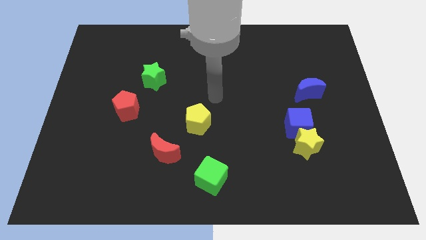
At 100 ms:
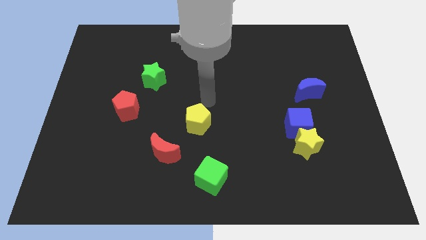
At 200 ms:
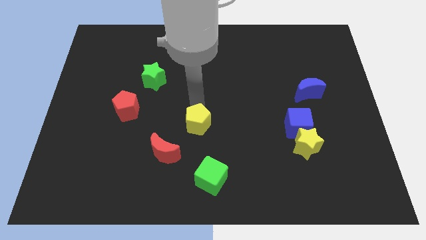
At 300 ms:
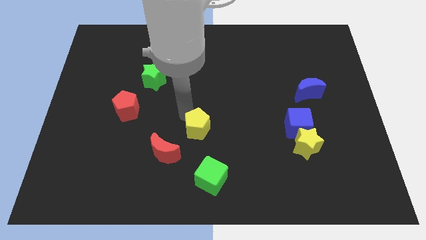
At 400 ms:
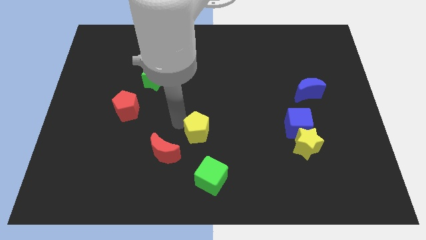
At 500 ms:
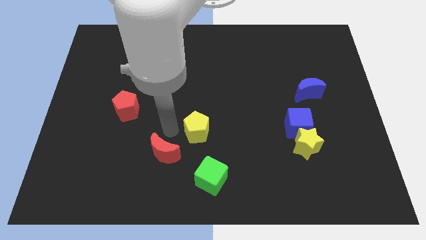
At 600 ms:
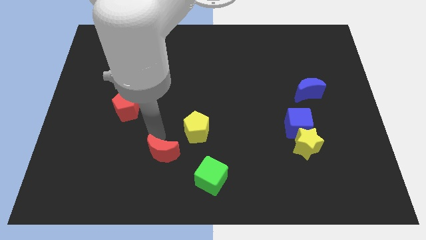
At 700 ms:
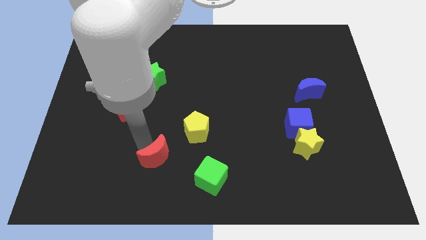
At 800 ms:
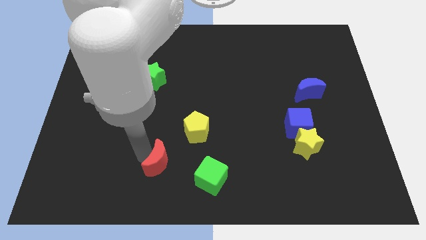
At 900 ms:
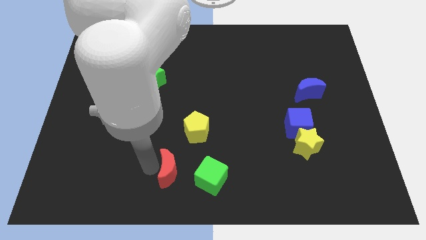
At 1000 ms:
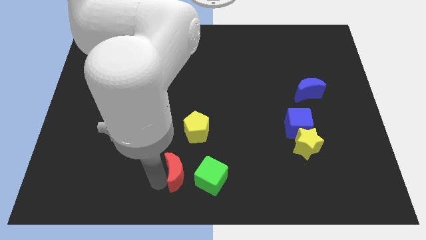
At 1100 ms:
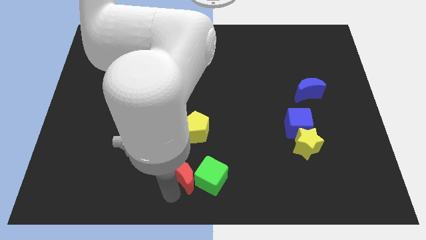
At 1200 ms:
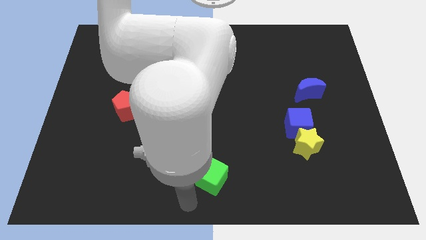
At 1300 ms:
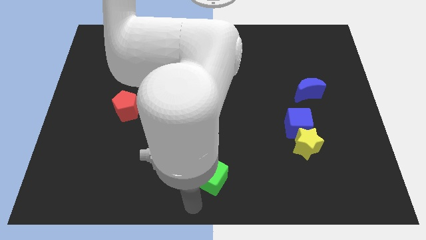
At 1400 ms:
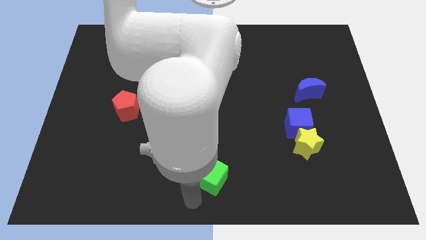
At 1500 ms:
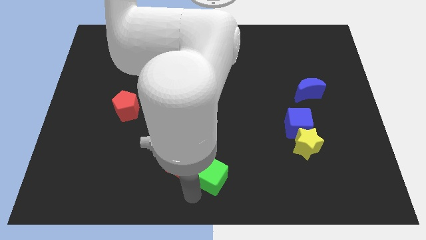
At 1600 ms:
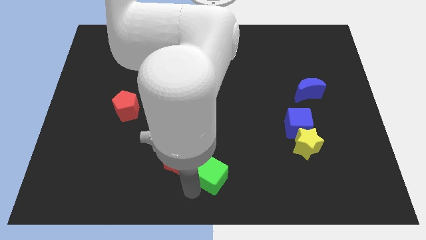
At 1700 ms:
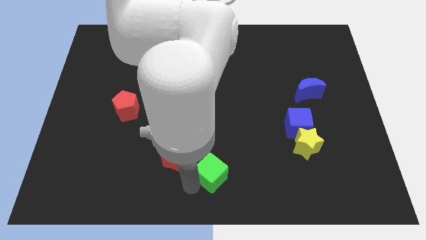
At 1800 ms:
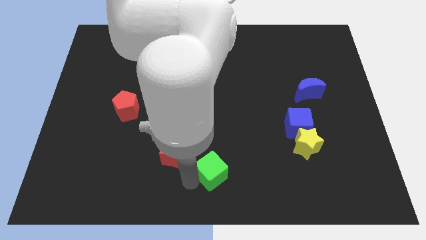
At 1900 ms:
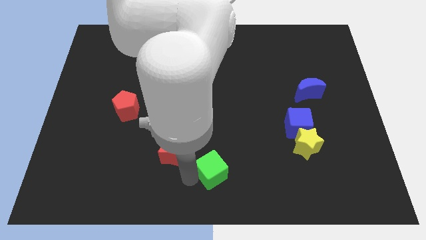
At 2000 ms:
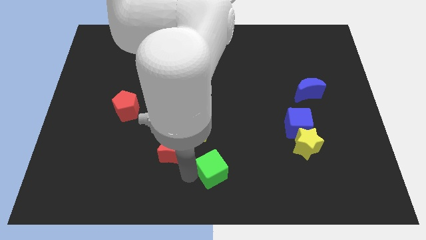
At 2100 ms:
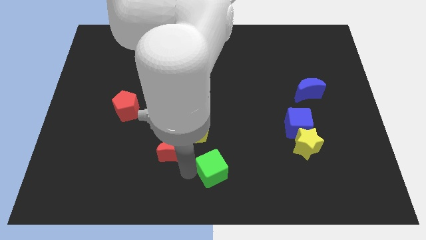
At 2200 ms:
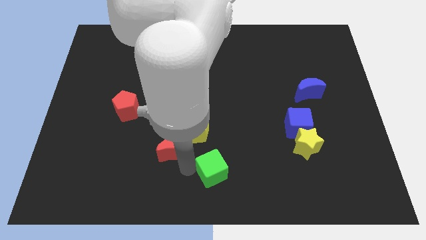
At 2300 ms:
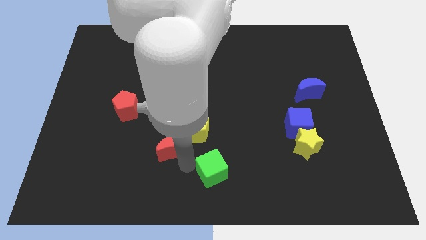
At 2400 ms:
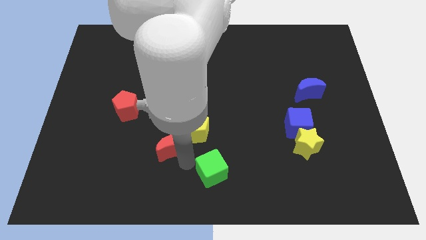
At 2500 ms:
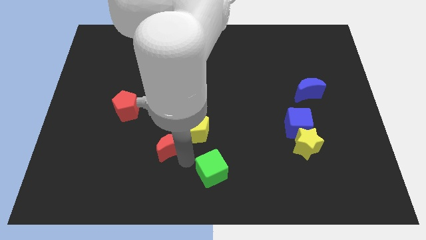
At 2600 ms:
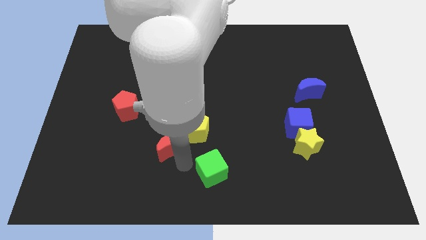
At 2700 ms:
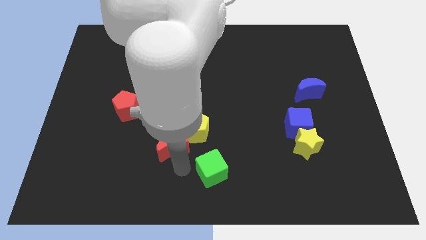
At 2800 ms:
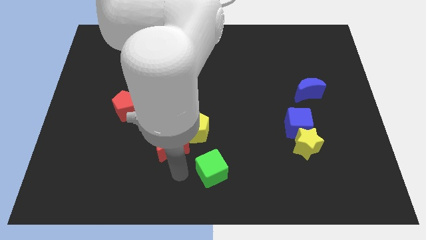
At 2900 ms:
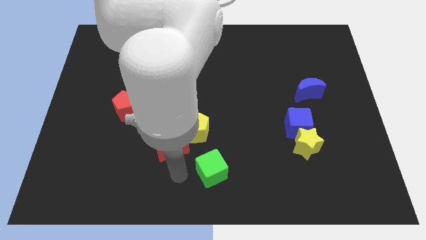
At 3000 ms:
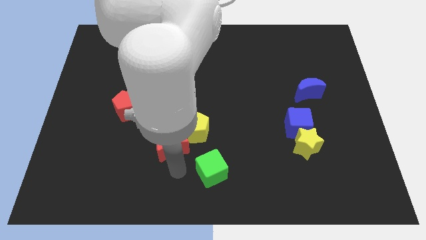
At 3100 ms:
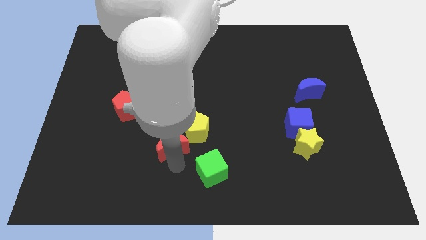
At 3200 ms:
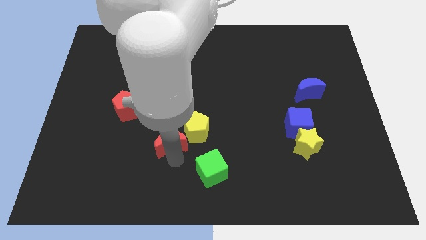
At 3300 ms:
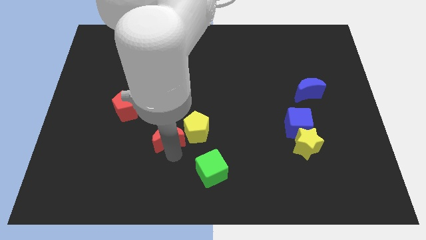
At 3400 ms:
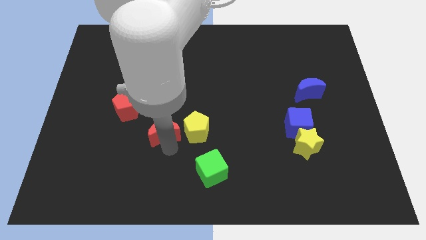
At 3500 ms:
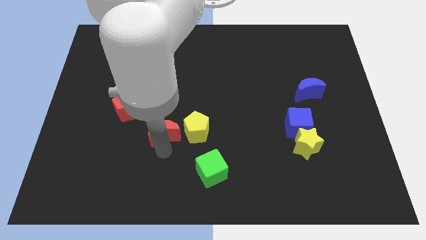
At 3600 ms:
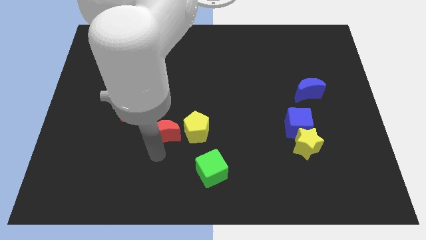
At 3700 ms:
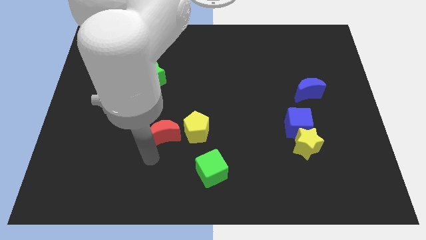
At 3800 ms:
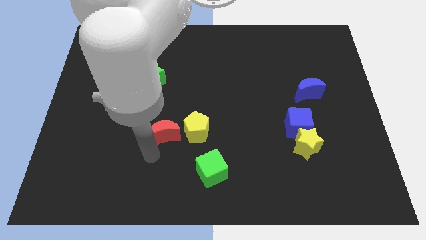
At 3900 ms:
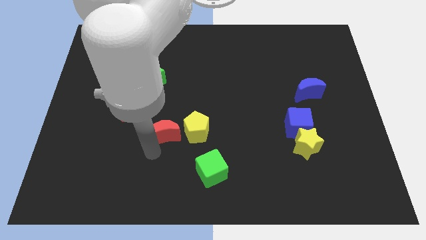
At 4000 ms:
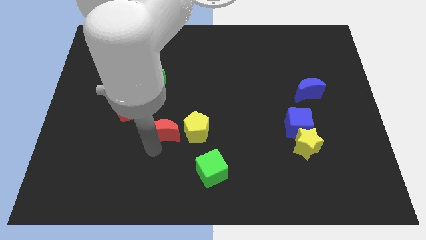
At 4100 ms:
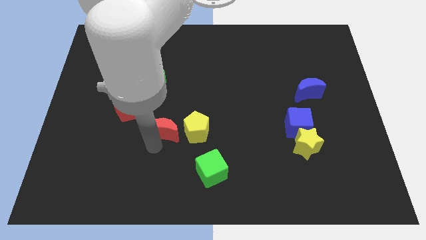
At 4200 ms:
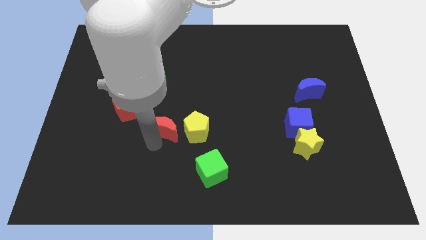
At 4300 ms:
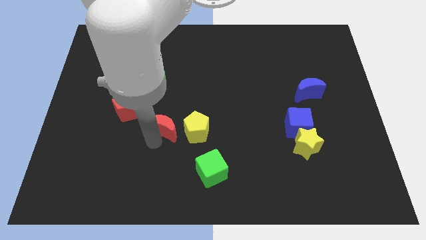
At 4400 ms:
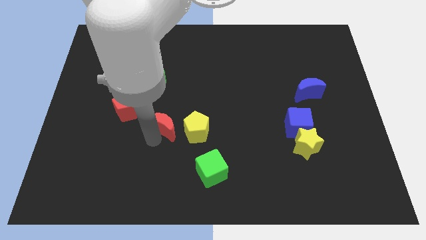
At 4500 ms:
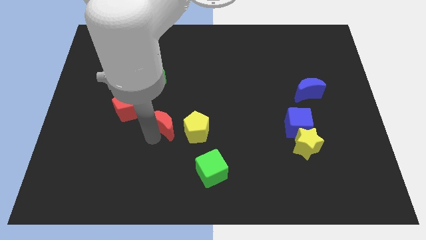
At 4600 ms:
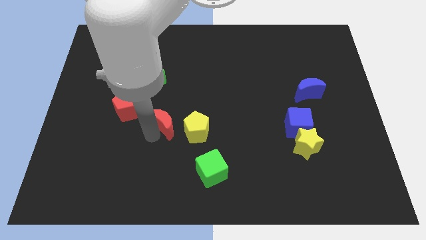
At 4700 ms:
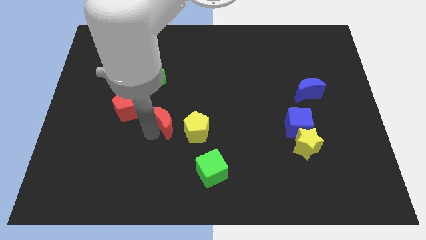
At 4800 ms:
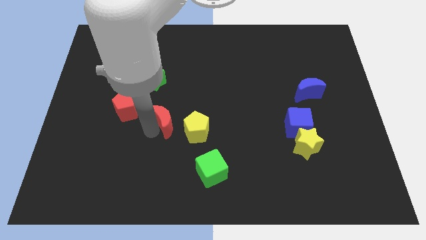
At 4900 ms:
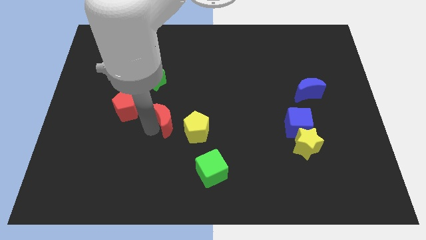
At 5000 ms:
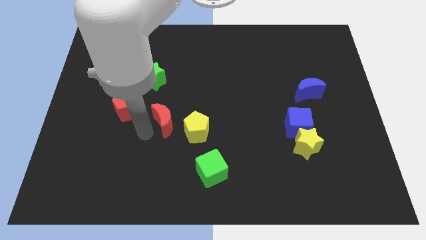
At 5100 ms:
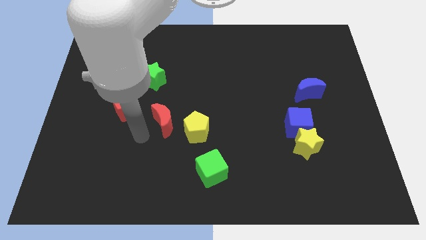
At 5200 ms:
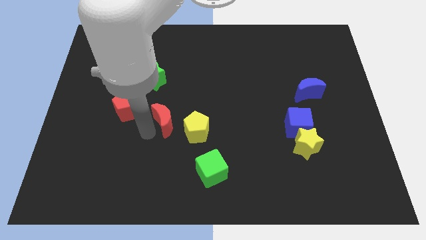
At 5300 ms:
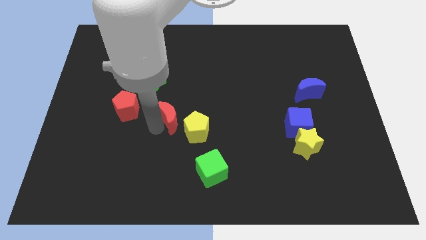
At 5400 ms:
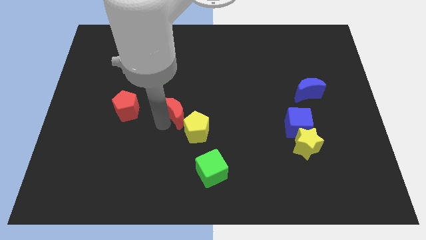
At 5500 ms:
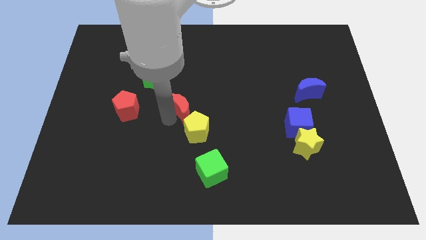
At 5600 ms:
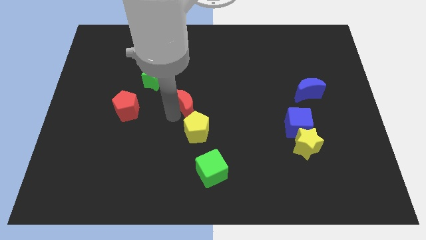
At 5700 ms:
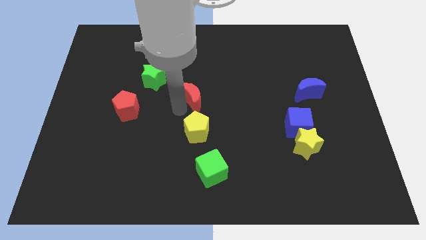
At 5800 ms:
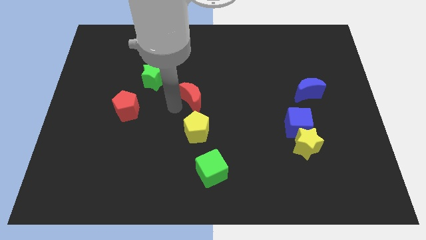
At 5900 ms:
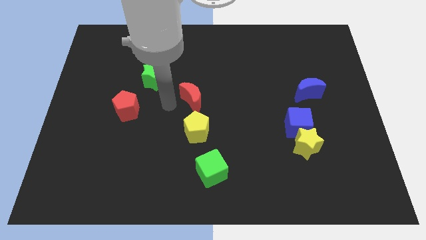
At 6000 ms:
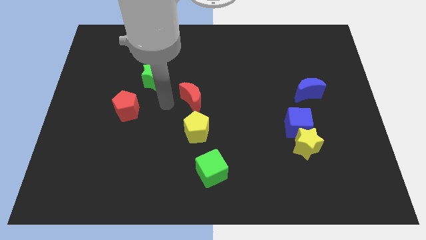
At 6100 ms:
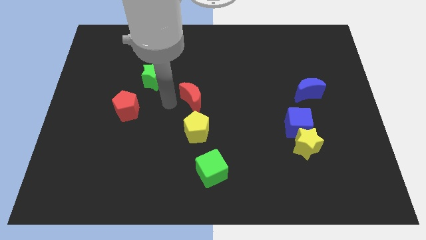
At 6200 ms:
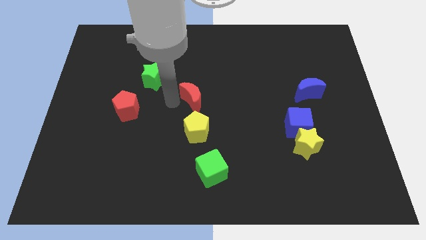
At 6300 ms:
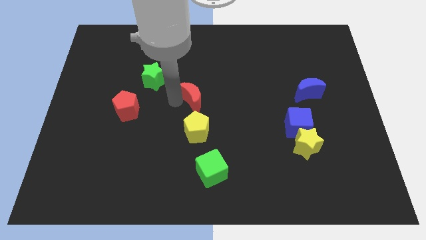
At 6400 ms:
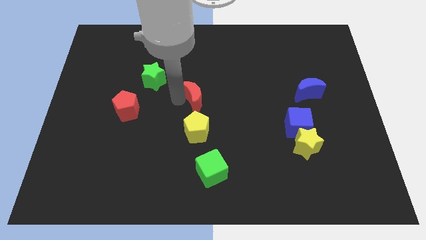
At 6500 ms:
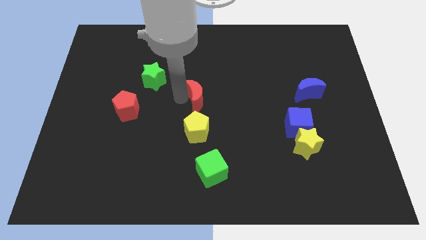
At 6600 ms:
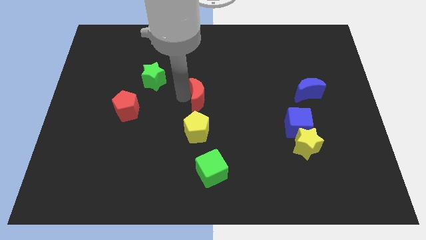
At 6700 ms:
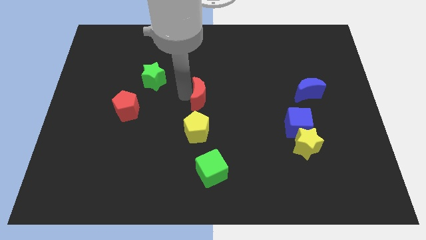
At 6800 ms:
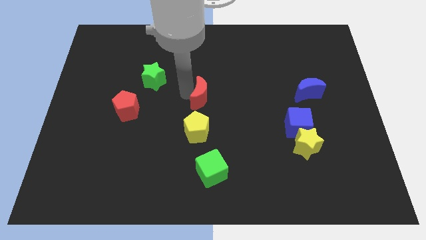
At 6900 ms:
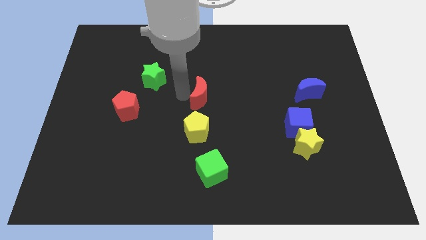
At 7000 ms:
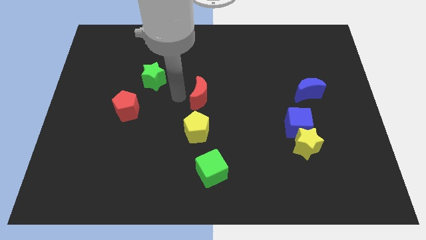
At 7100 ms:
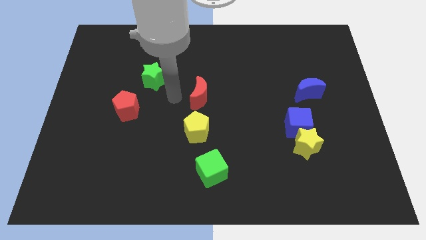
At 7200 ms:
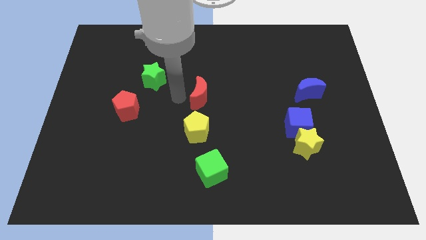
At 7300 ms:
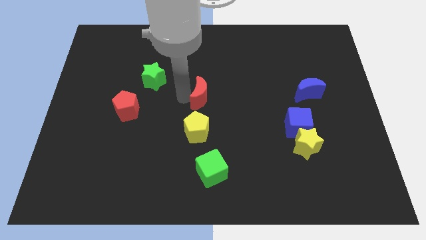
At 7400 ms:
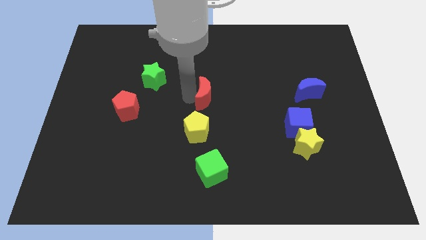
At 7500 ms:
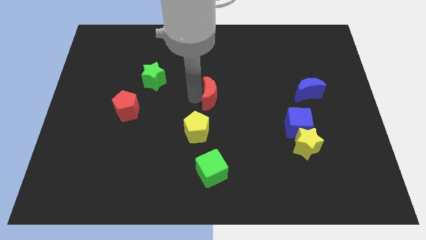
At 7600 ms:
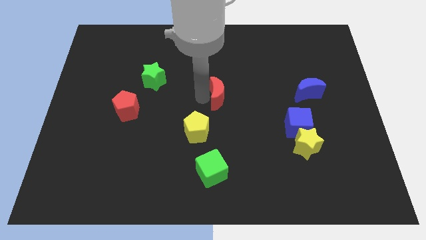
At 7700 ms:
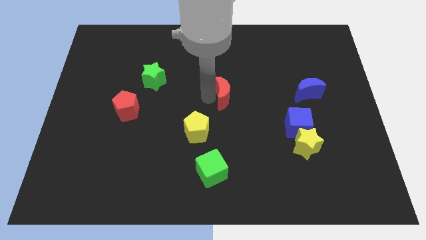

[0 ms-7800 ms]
push the red moon up and right

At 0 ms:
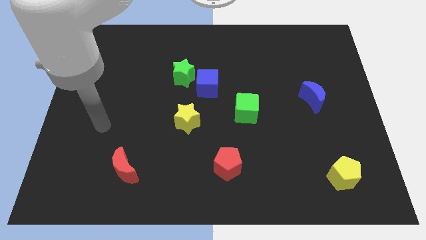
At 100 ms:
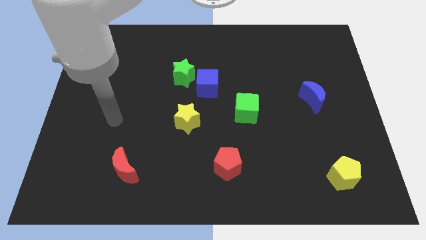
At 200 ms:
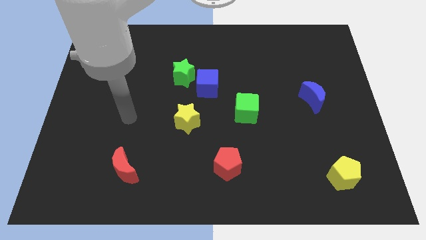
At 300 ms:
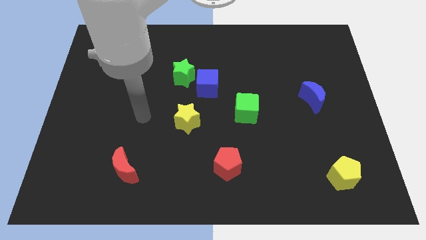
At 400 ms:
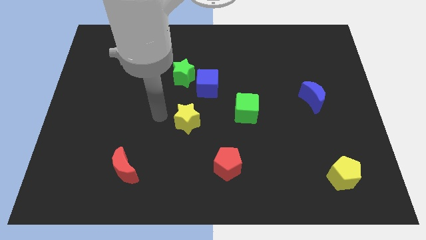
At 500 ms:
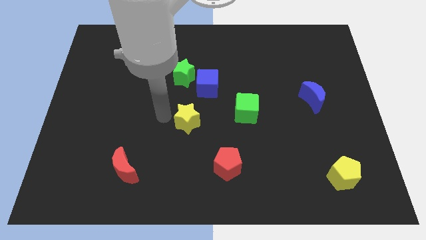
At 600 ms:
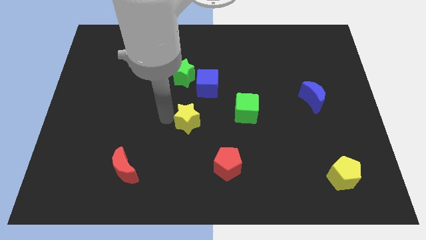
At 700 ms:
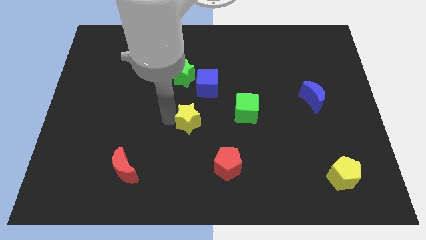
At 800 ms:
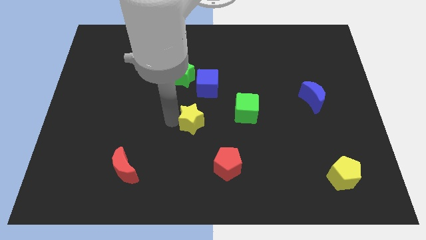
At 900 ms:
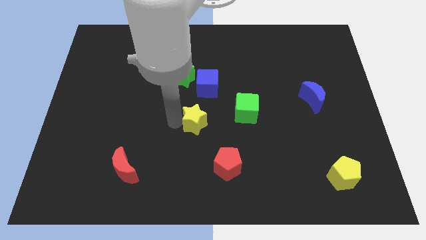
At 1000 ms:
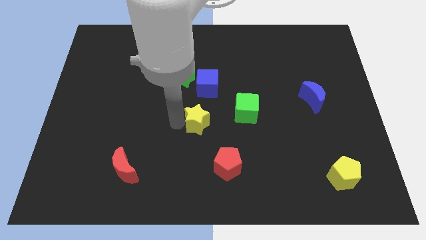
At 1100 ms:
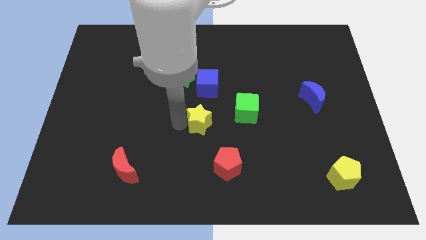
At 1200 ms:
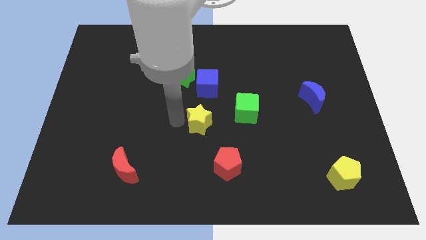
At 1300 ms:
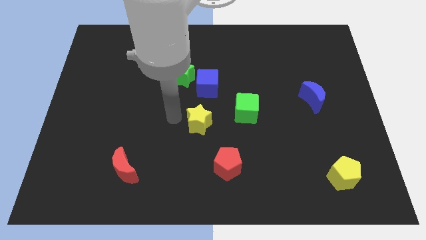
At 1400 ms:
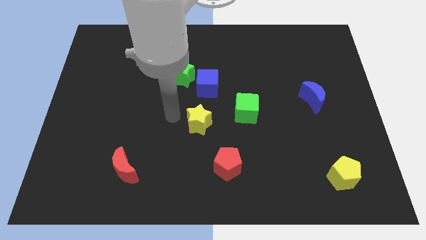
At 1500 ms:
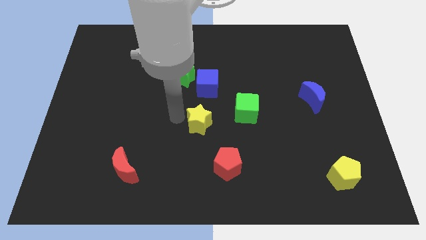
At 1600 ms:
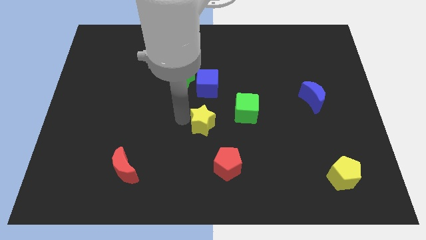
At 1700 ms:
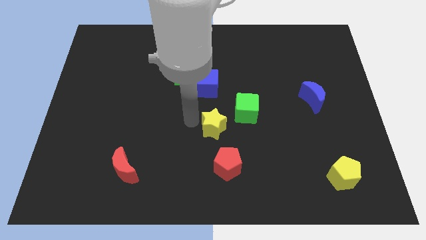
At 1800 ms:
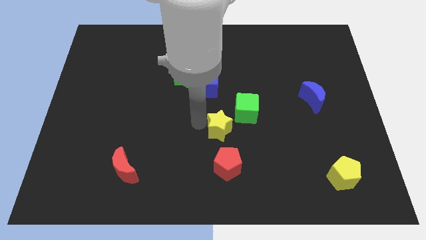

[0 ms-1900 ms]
slightly push the yellow star right
